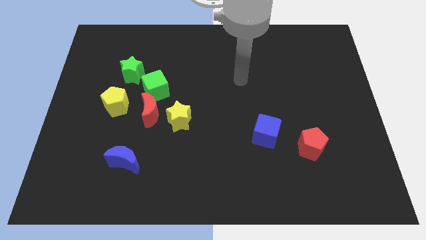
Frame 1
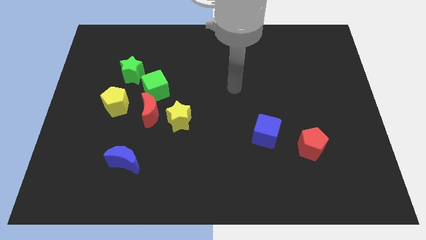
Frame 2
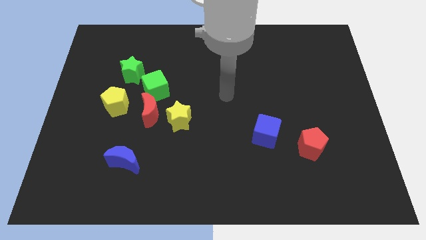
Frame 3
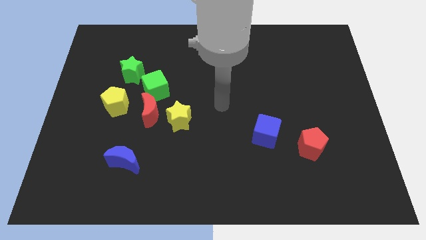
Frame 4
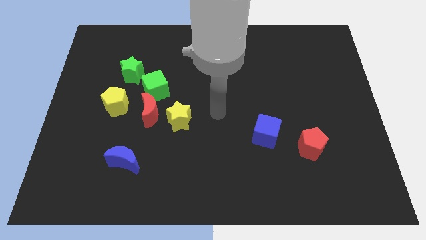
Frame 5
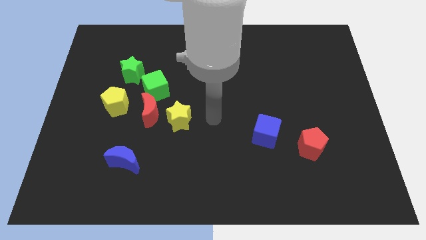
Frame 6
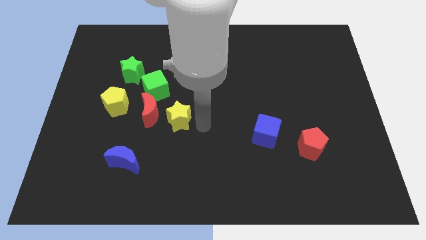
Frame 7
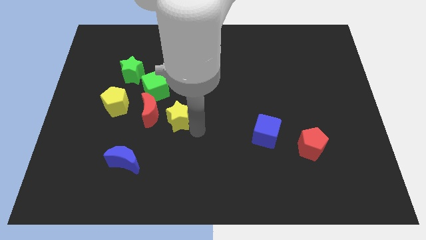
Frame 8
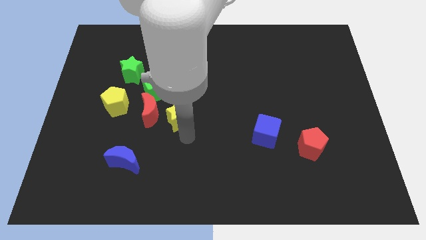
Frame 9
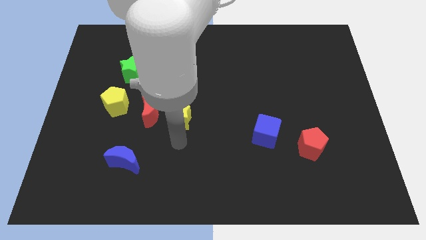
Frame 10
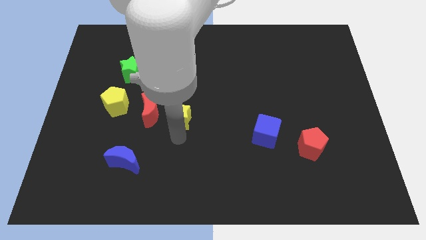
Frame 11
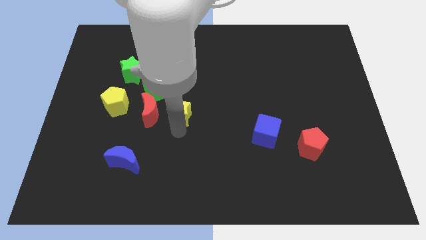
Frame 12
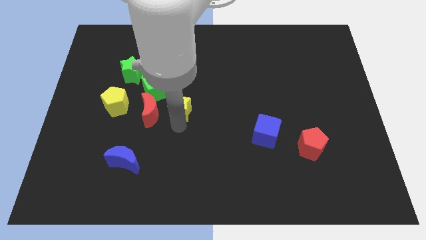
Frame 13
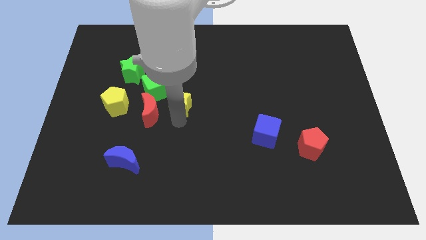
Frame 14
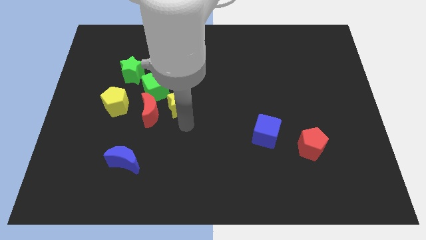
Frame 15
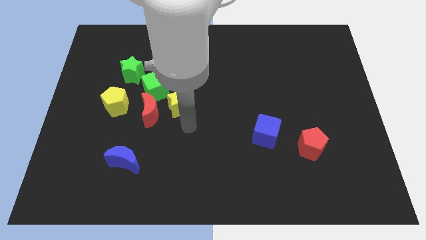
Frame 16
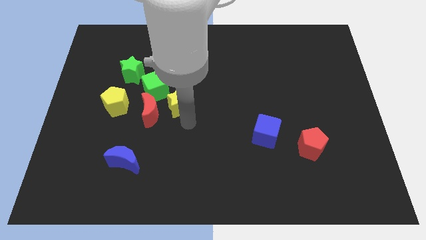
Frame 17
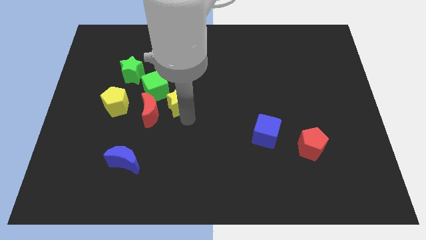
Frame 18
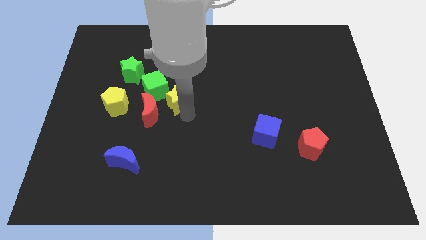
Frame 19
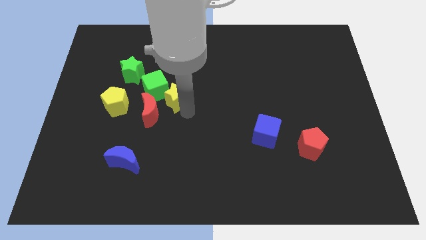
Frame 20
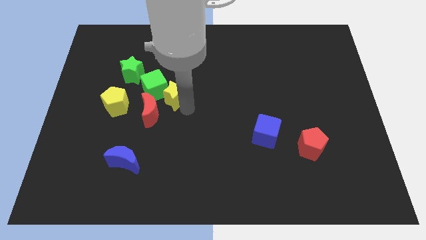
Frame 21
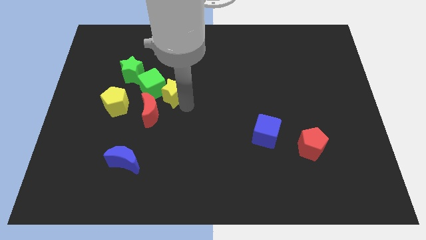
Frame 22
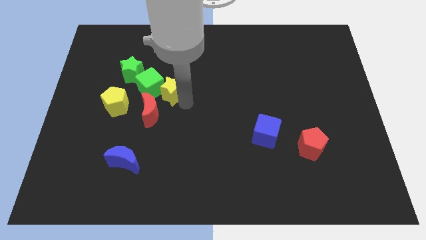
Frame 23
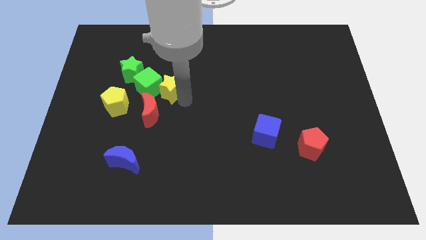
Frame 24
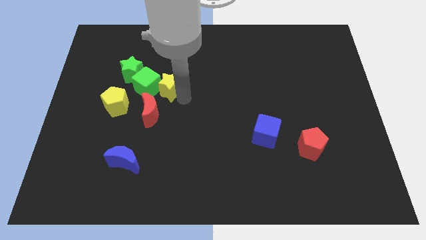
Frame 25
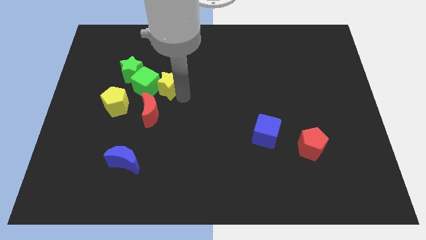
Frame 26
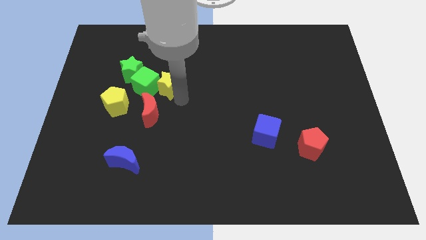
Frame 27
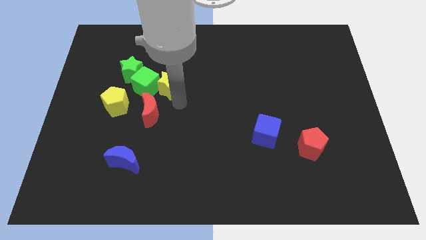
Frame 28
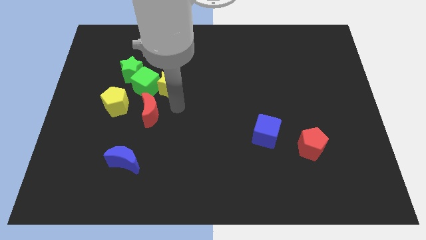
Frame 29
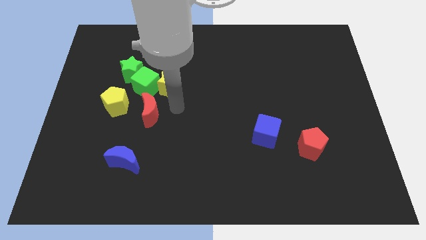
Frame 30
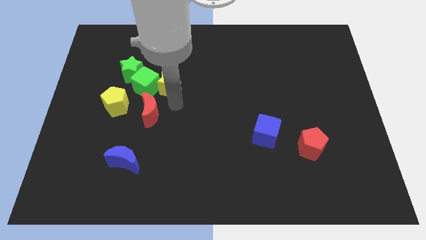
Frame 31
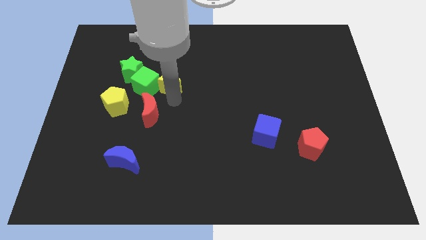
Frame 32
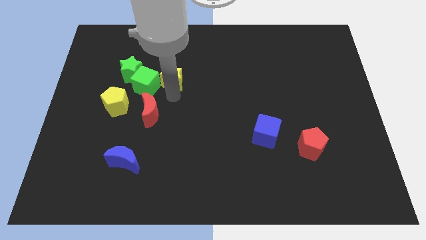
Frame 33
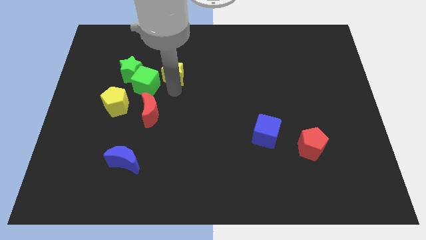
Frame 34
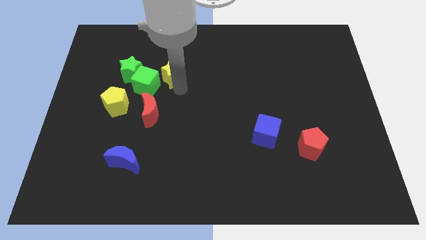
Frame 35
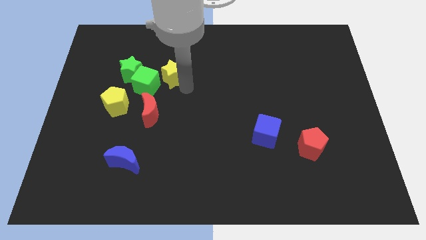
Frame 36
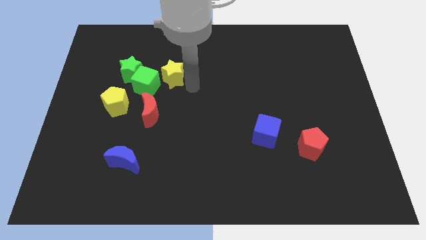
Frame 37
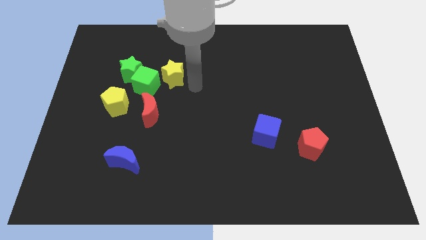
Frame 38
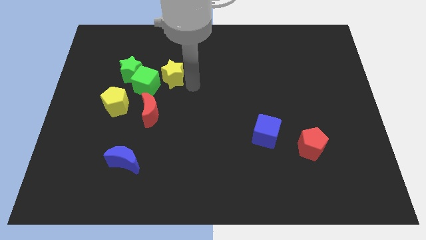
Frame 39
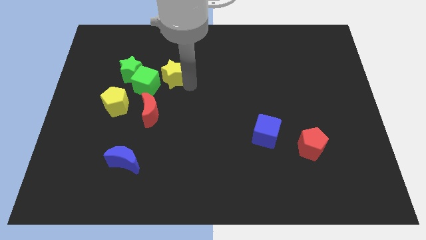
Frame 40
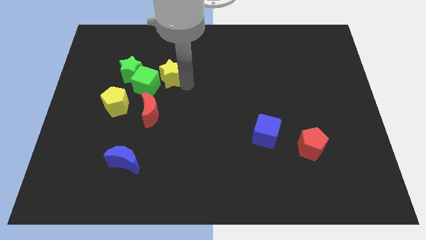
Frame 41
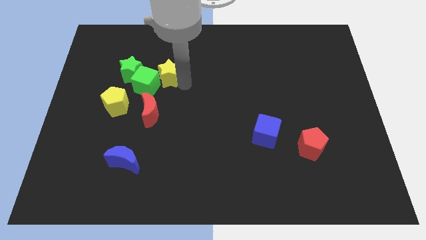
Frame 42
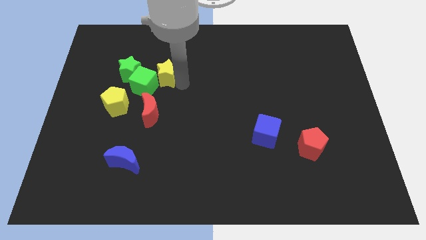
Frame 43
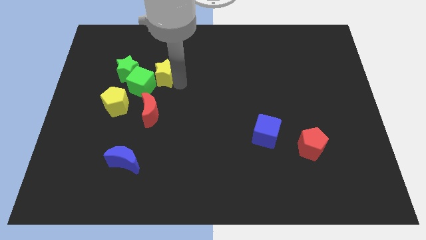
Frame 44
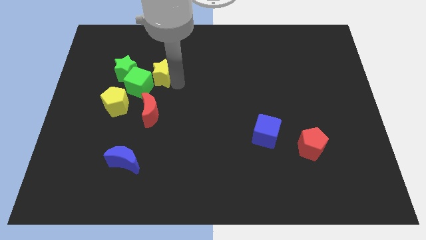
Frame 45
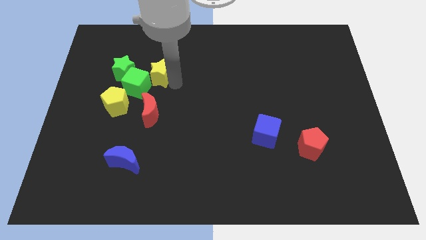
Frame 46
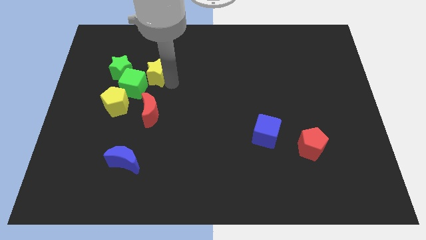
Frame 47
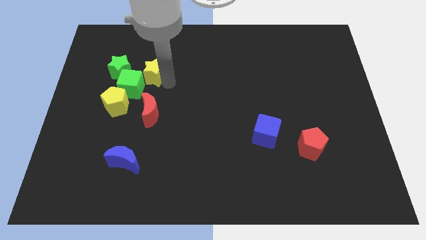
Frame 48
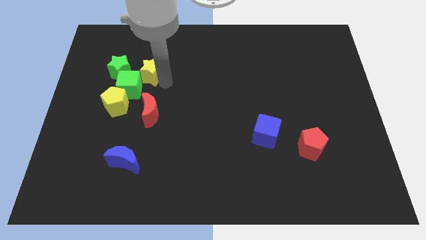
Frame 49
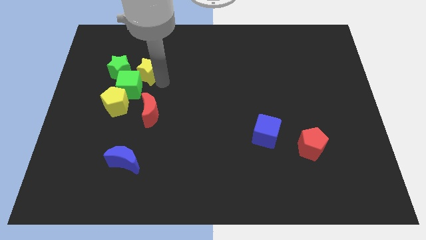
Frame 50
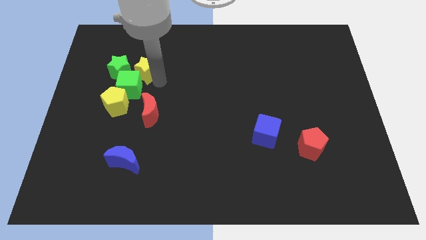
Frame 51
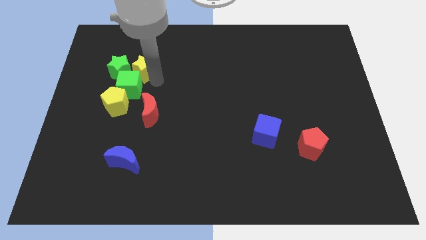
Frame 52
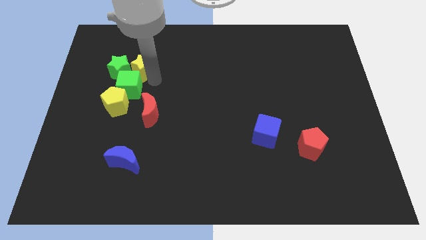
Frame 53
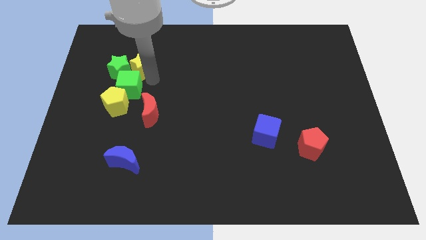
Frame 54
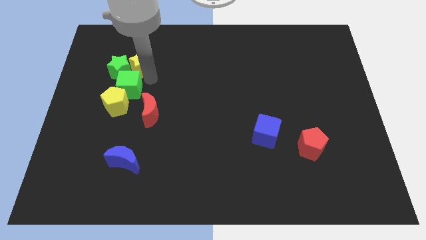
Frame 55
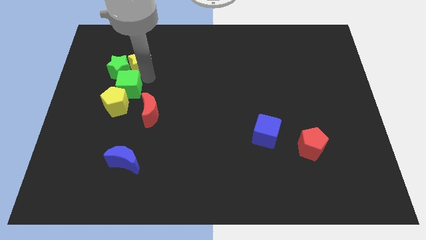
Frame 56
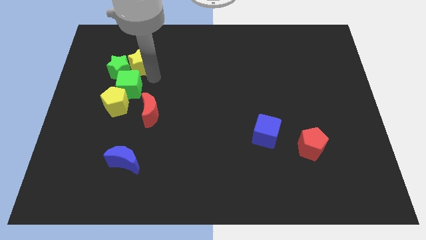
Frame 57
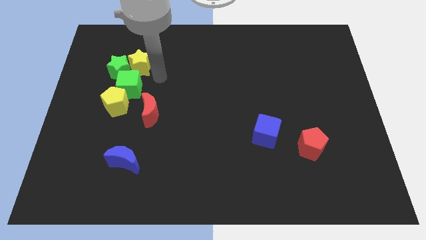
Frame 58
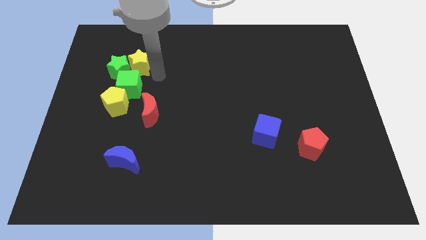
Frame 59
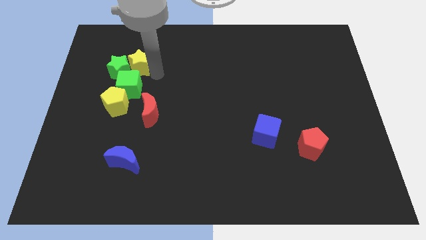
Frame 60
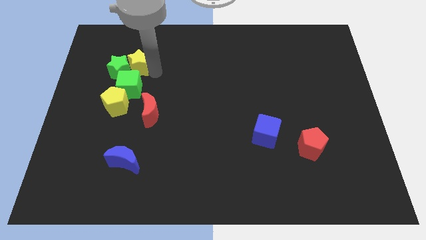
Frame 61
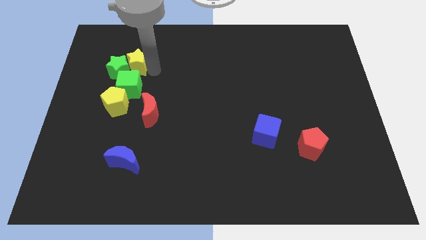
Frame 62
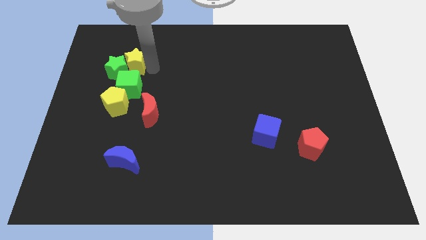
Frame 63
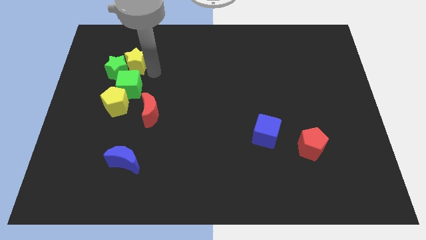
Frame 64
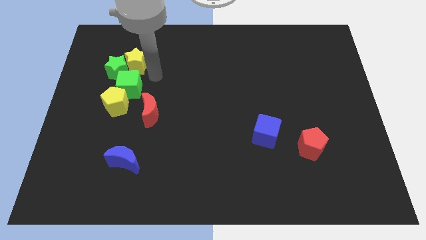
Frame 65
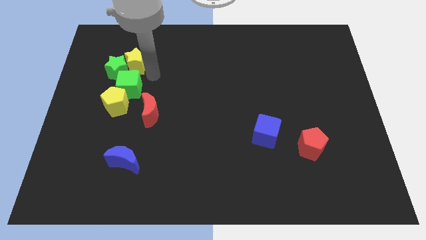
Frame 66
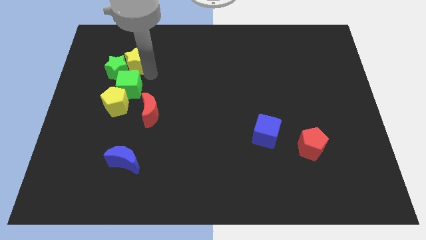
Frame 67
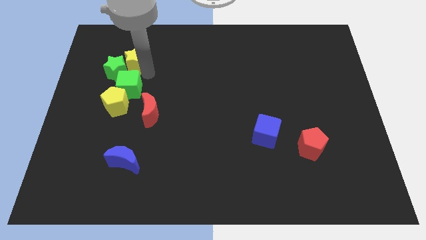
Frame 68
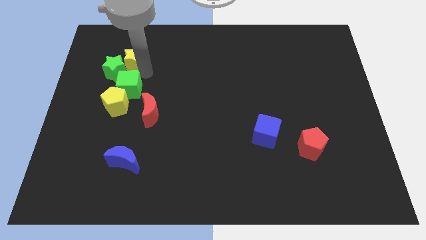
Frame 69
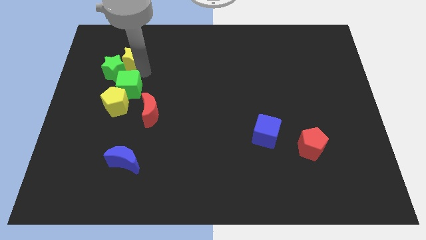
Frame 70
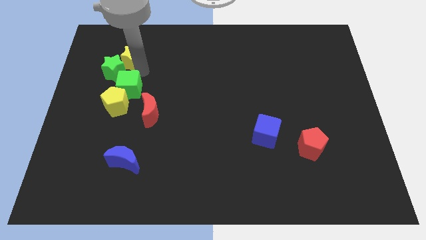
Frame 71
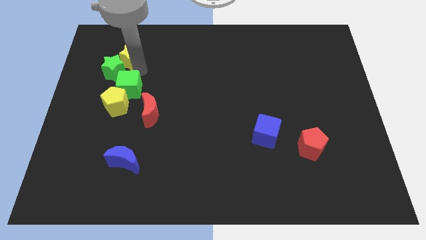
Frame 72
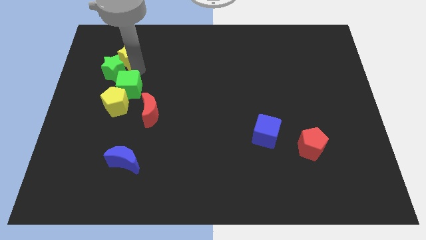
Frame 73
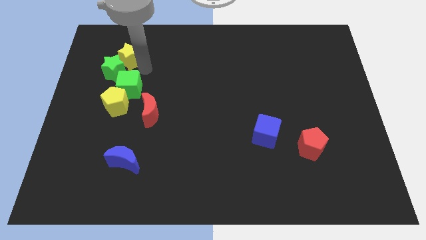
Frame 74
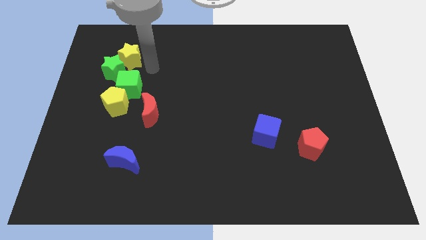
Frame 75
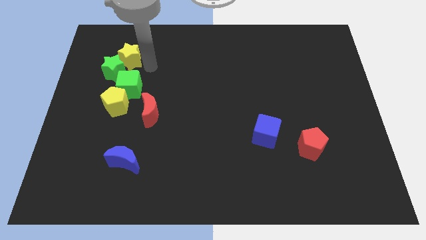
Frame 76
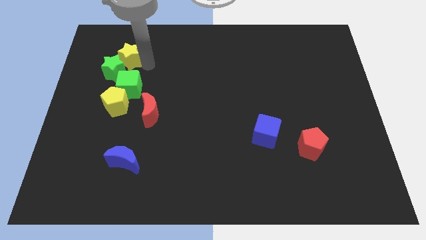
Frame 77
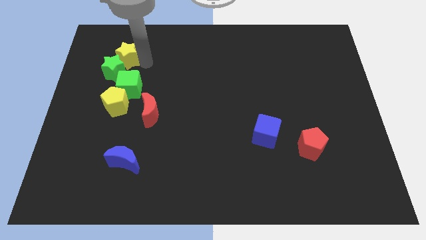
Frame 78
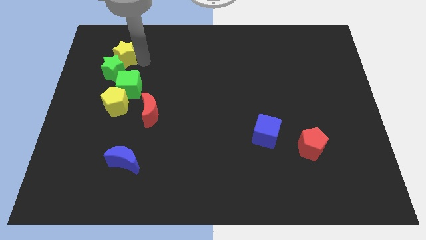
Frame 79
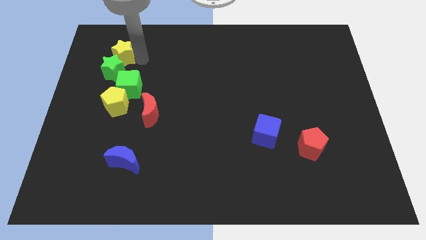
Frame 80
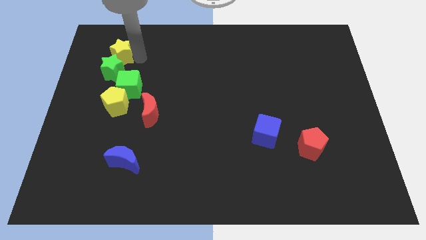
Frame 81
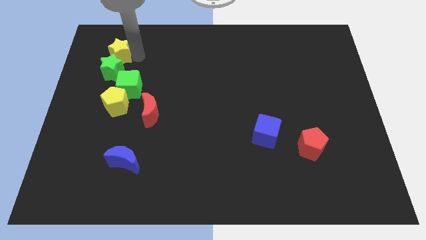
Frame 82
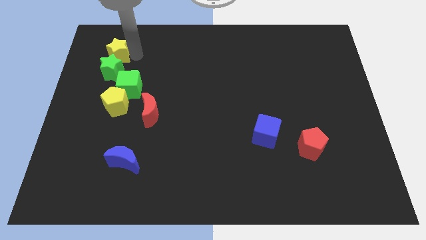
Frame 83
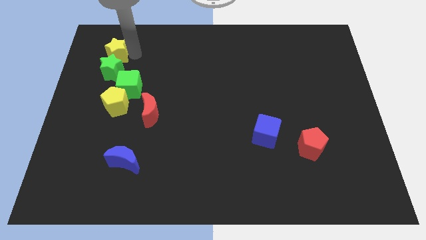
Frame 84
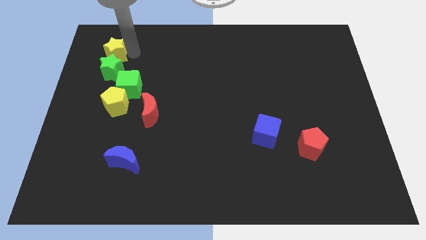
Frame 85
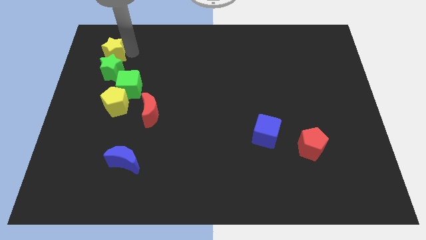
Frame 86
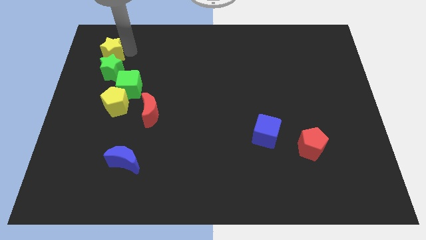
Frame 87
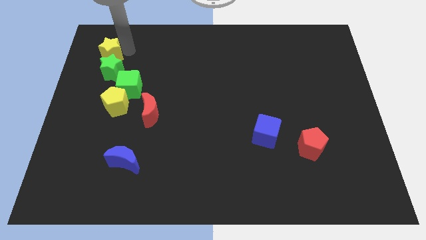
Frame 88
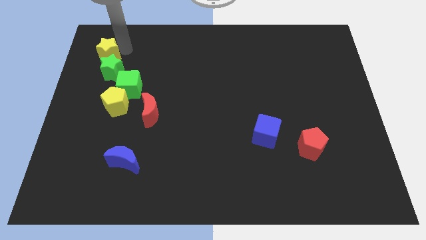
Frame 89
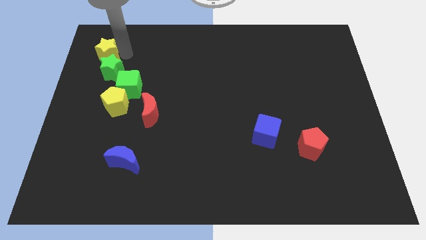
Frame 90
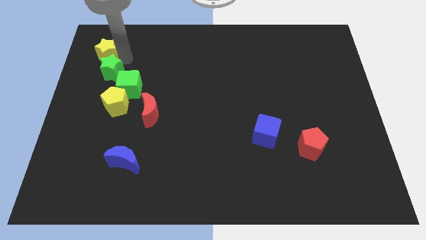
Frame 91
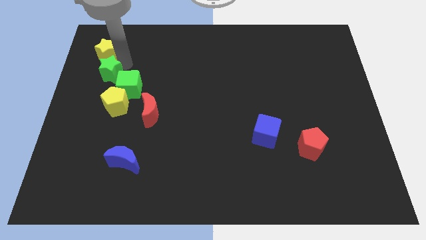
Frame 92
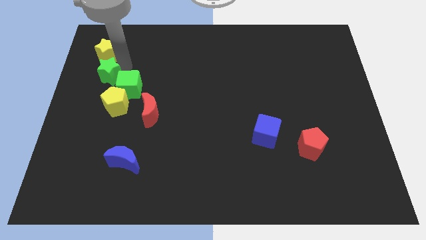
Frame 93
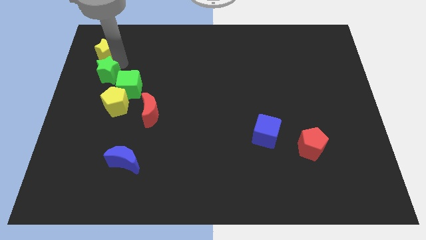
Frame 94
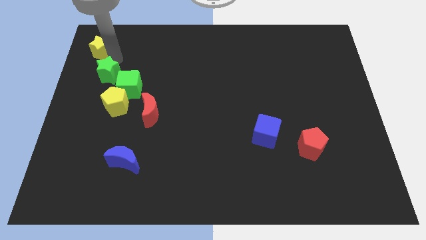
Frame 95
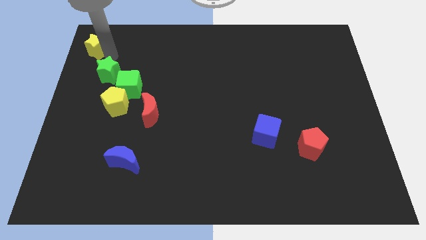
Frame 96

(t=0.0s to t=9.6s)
move the yellow star to the top left
